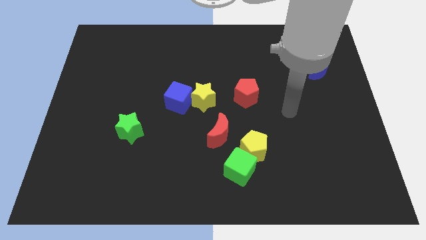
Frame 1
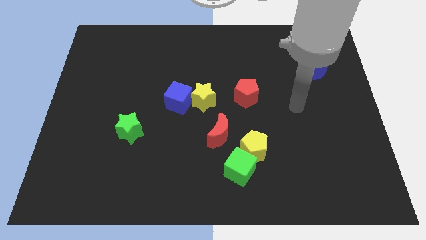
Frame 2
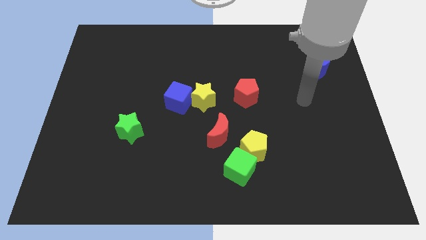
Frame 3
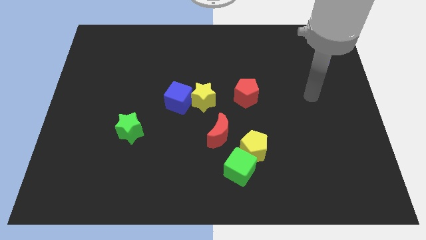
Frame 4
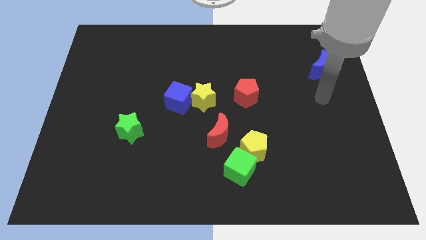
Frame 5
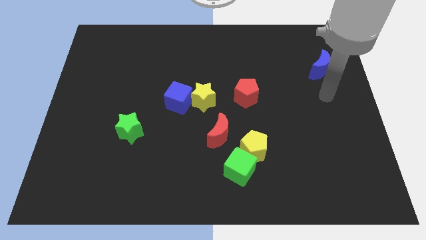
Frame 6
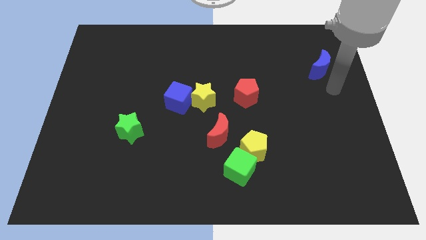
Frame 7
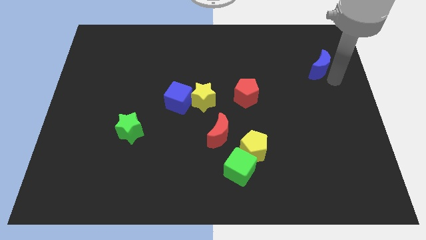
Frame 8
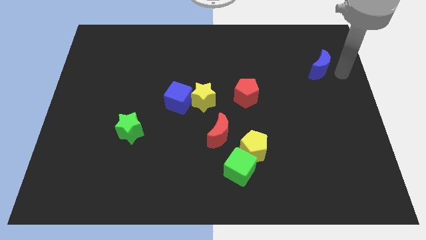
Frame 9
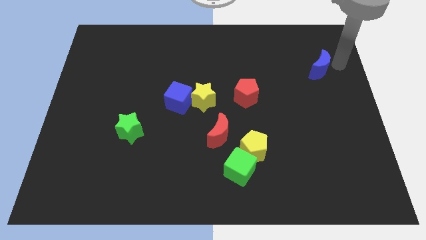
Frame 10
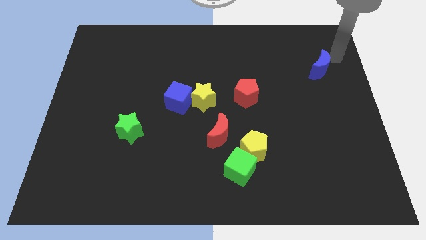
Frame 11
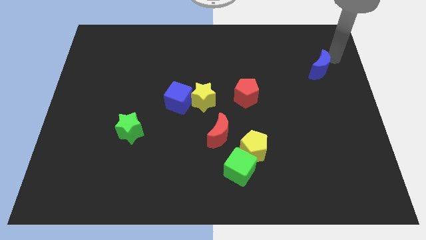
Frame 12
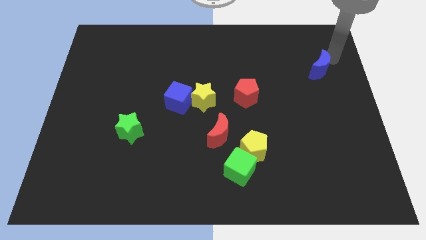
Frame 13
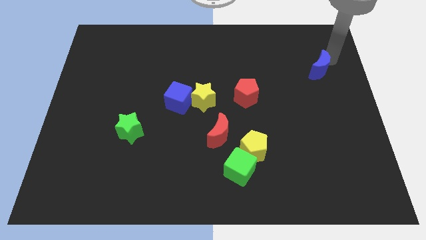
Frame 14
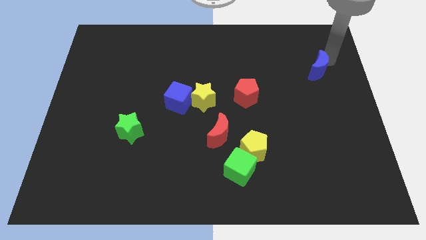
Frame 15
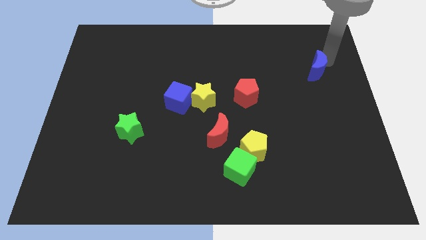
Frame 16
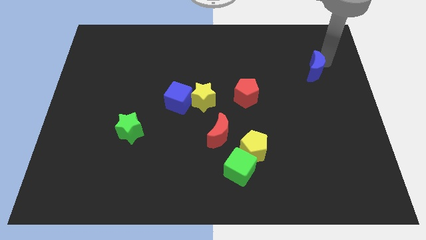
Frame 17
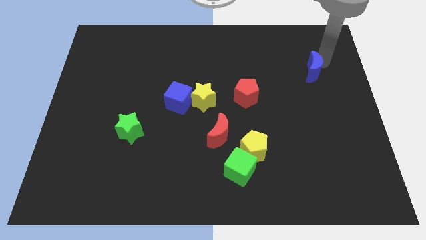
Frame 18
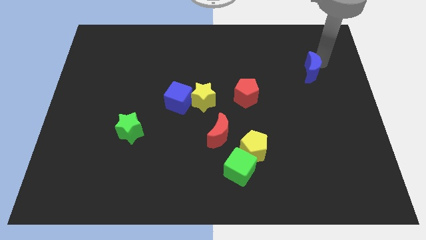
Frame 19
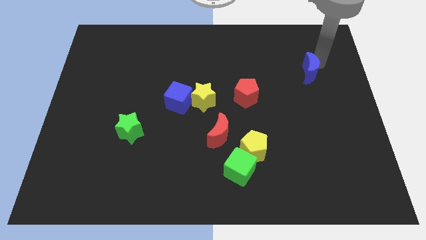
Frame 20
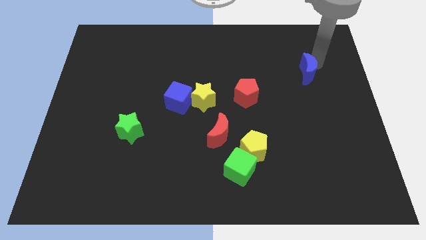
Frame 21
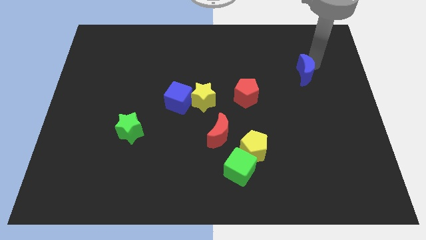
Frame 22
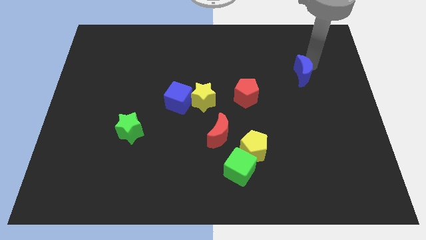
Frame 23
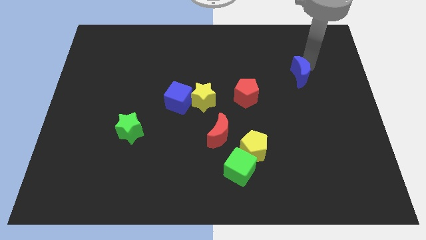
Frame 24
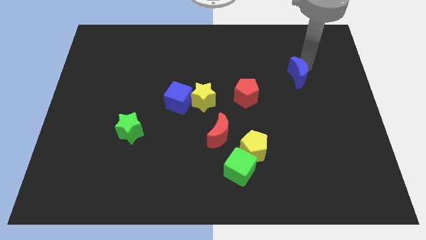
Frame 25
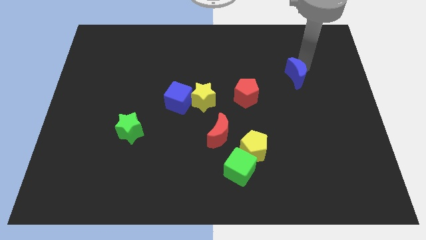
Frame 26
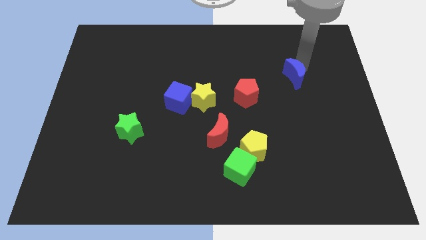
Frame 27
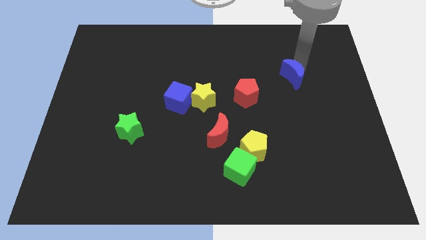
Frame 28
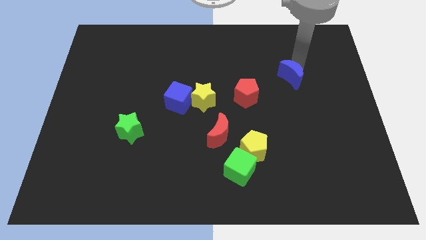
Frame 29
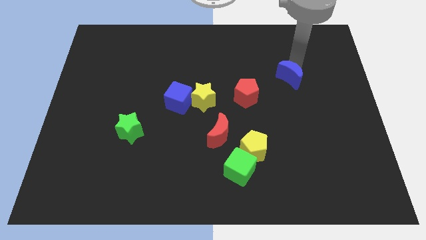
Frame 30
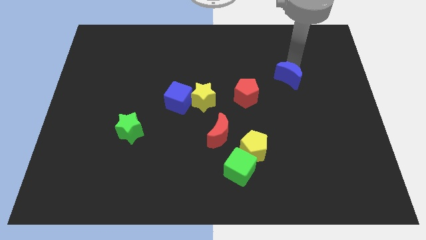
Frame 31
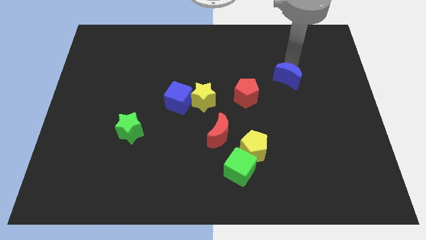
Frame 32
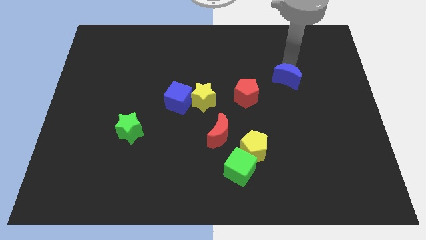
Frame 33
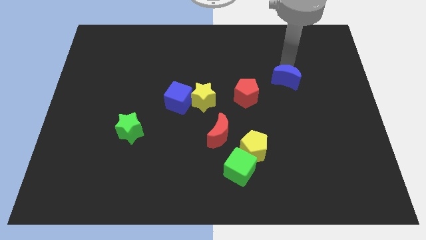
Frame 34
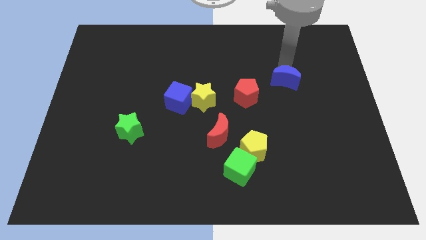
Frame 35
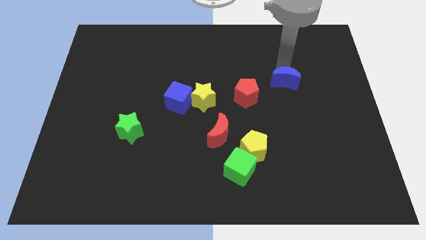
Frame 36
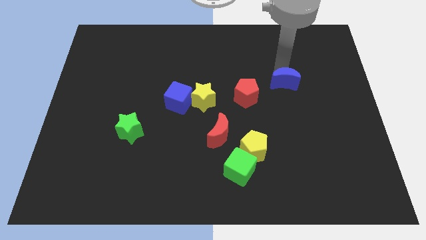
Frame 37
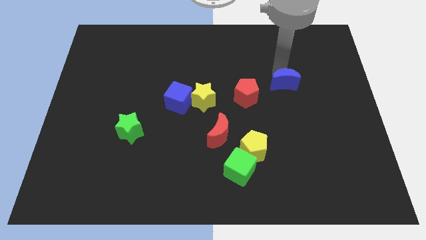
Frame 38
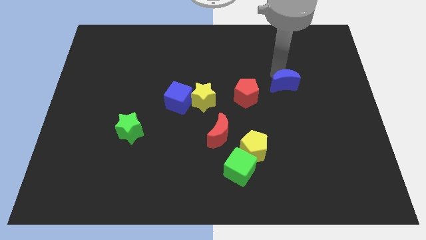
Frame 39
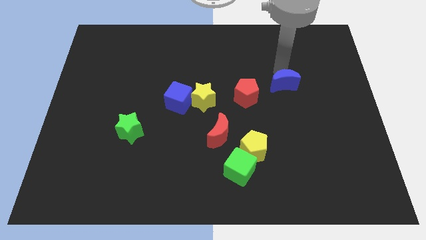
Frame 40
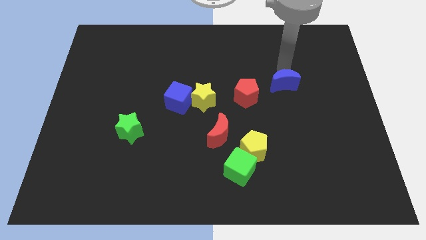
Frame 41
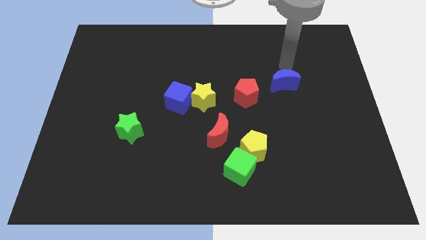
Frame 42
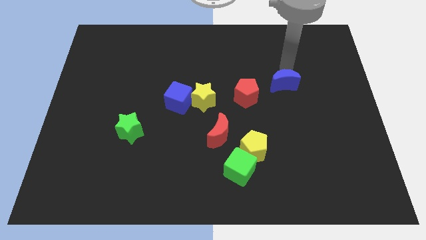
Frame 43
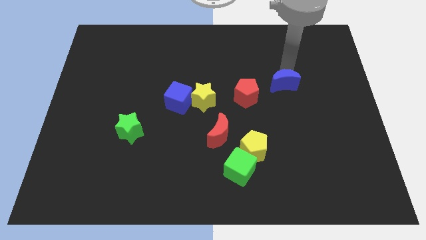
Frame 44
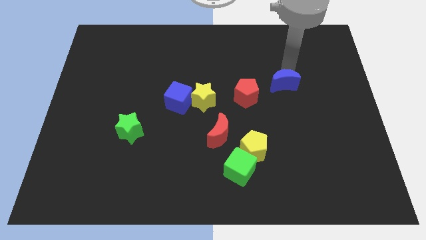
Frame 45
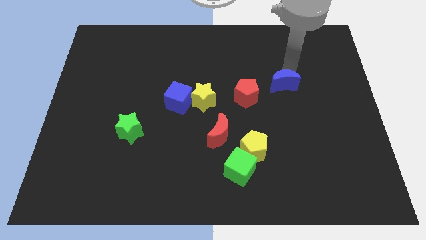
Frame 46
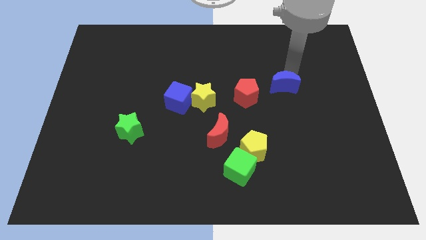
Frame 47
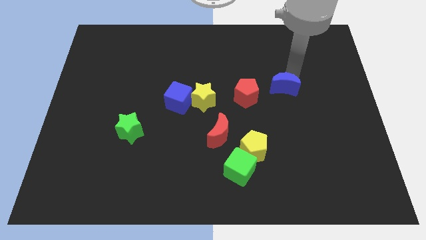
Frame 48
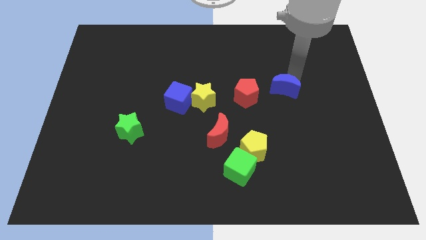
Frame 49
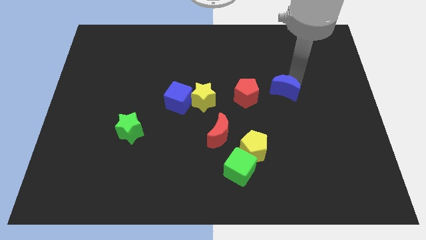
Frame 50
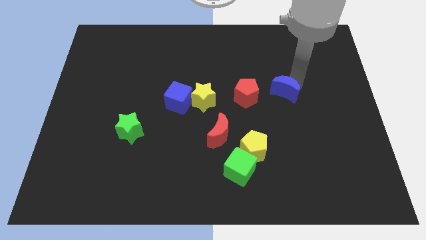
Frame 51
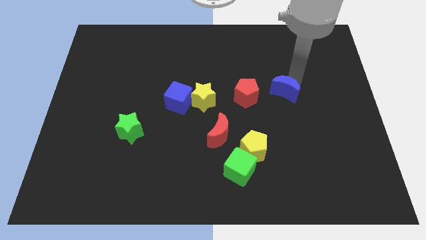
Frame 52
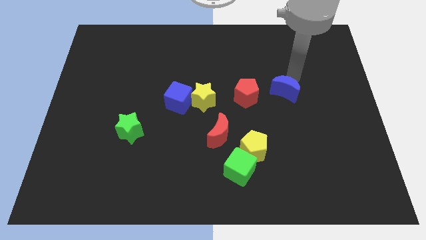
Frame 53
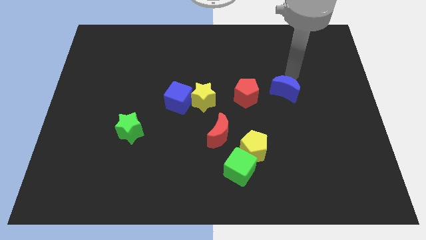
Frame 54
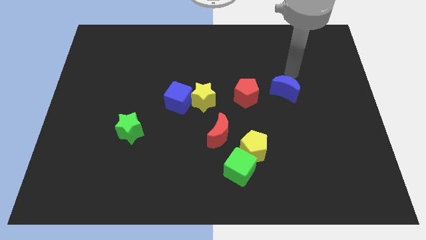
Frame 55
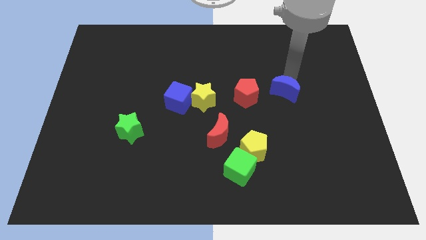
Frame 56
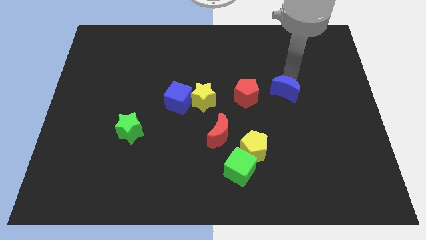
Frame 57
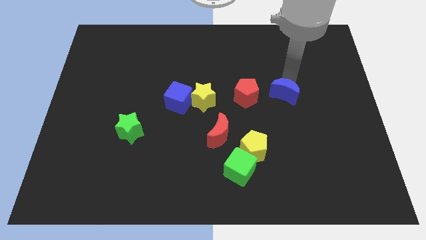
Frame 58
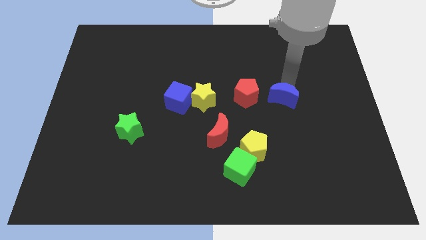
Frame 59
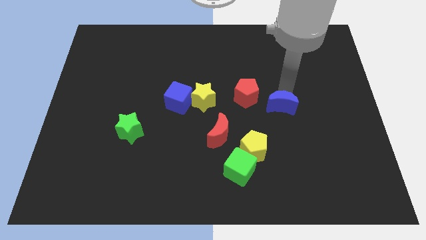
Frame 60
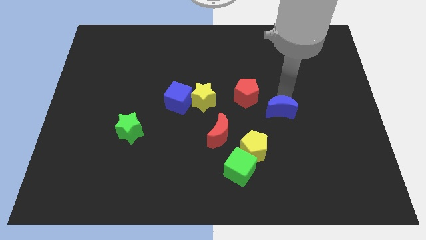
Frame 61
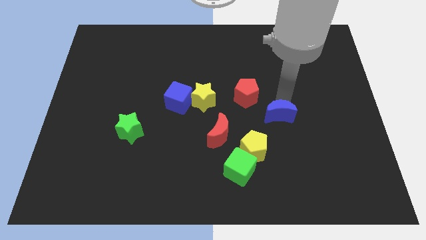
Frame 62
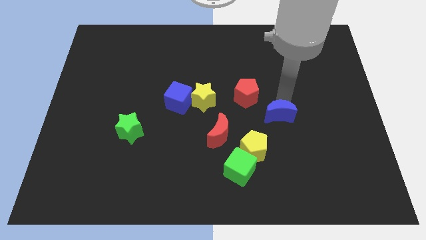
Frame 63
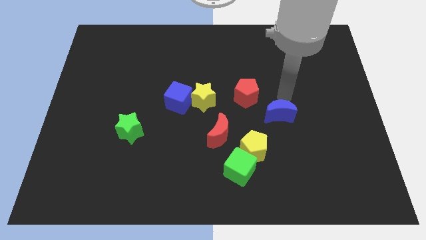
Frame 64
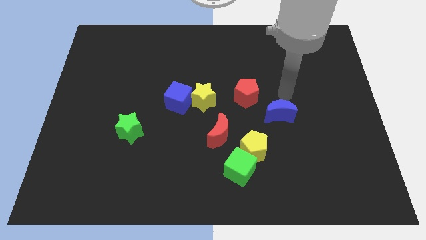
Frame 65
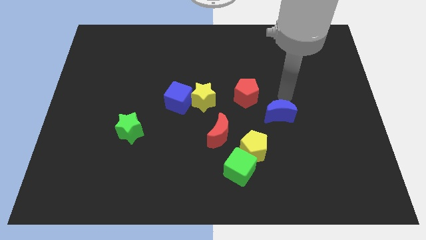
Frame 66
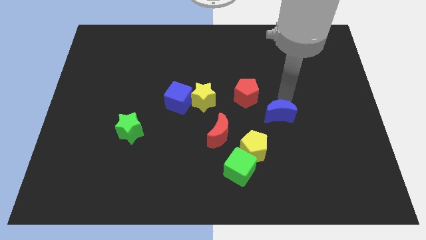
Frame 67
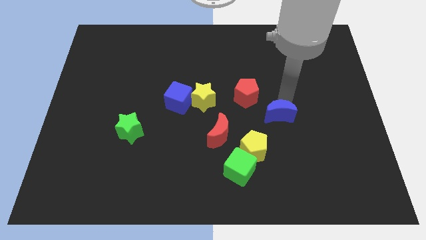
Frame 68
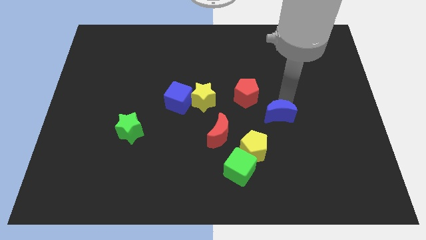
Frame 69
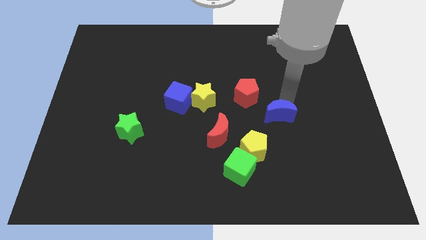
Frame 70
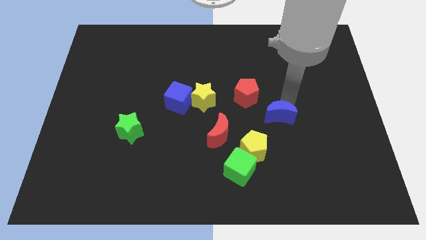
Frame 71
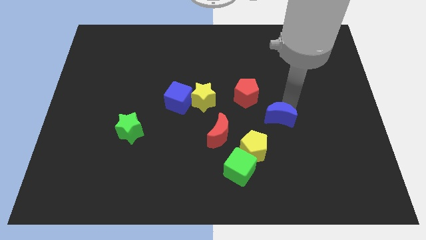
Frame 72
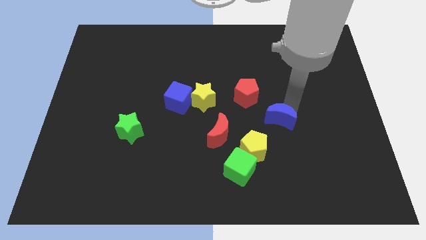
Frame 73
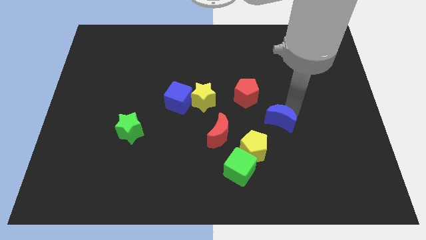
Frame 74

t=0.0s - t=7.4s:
put the blue moon just right of the red moon
